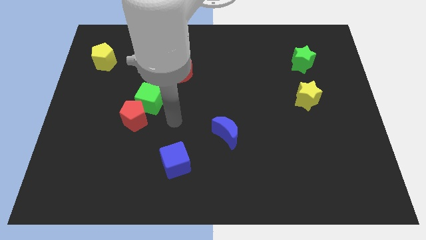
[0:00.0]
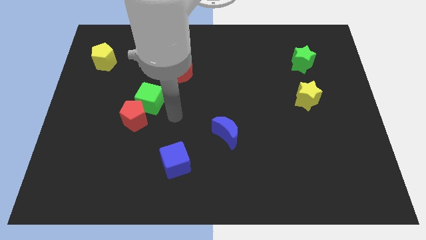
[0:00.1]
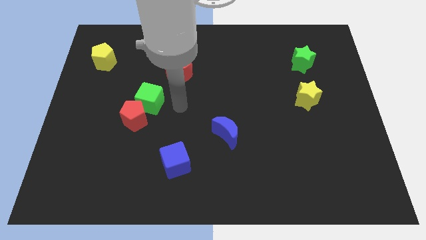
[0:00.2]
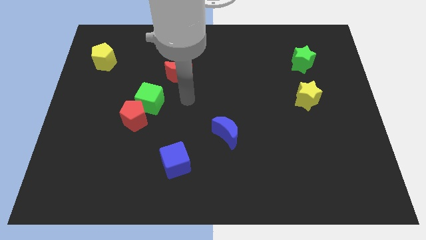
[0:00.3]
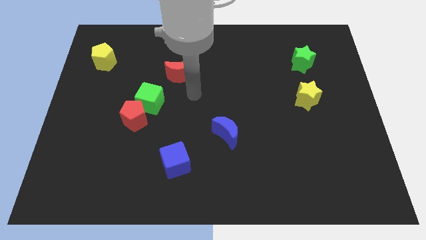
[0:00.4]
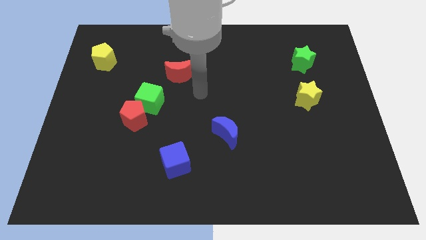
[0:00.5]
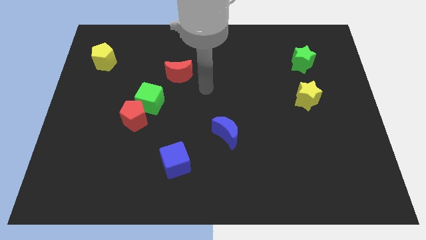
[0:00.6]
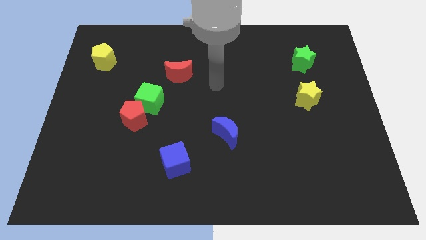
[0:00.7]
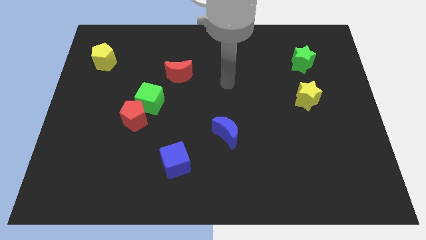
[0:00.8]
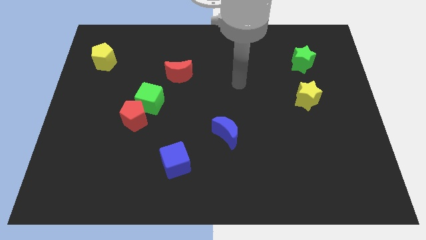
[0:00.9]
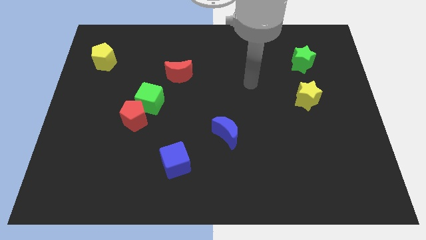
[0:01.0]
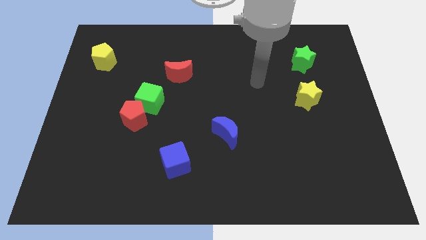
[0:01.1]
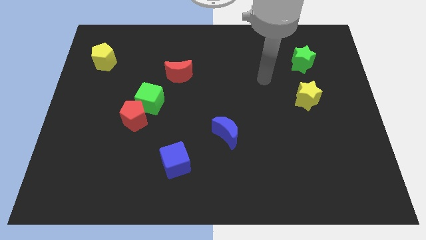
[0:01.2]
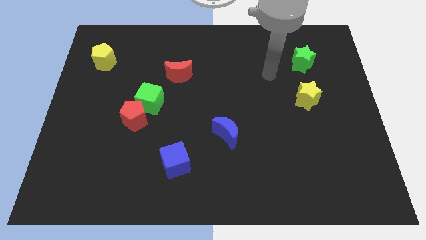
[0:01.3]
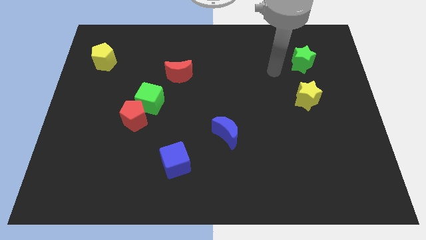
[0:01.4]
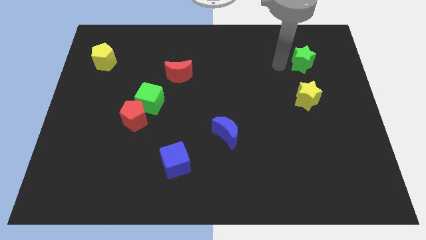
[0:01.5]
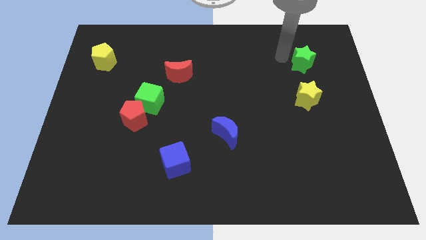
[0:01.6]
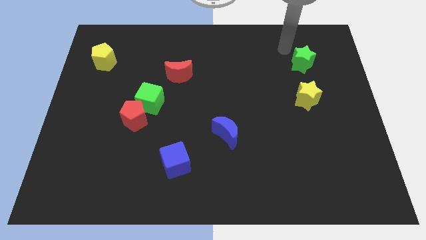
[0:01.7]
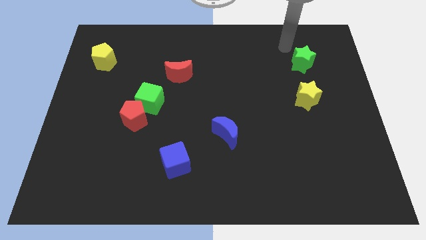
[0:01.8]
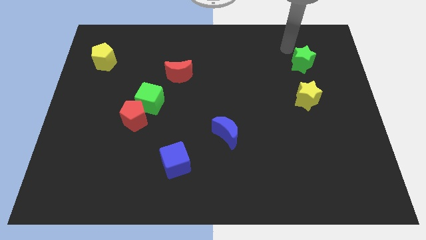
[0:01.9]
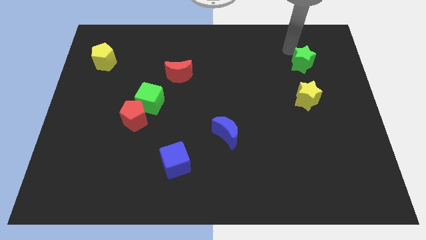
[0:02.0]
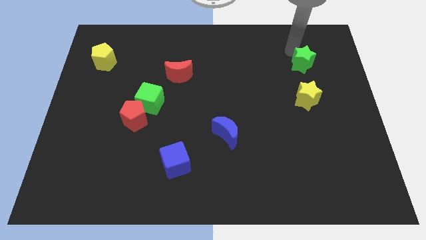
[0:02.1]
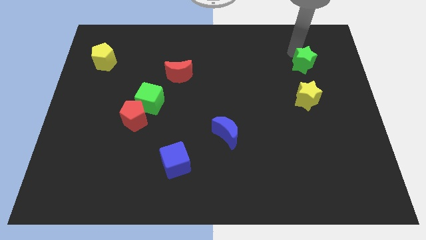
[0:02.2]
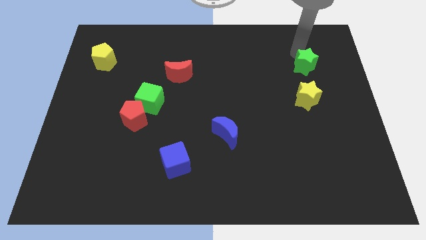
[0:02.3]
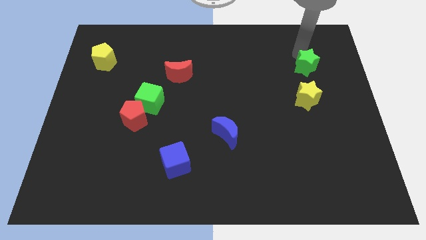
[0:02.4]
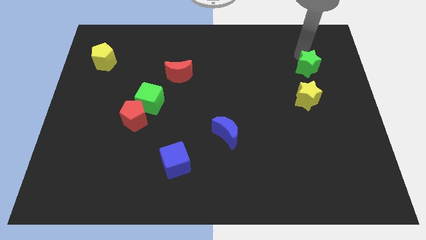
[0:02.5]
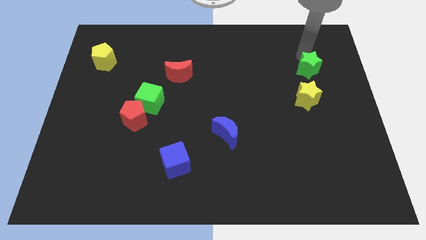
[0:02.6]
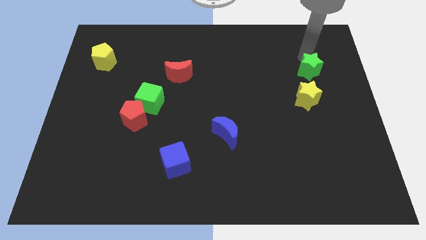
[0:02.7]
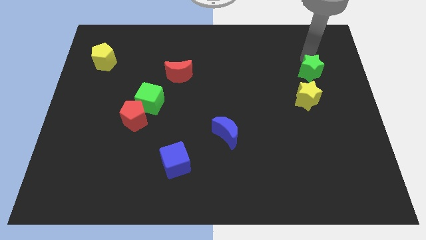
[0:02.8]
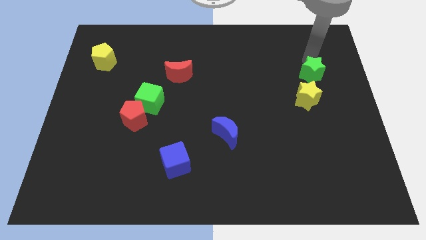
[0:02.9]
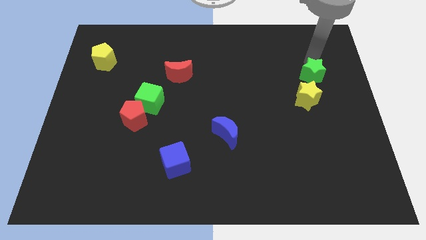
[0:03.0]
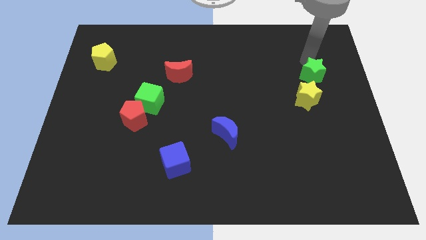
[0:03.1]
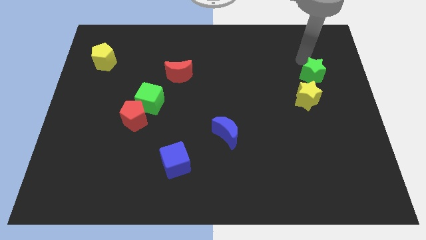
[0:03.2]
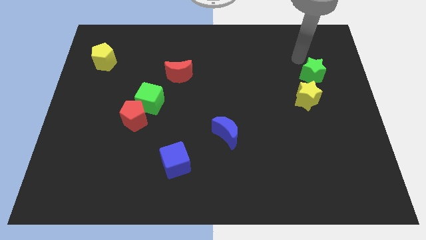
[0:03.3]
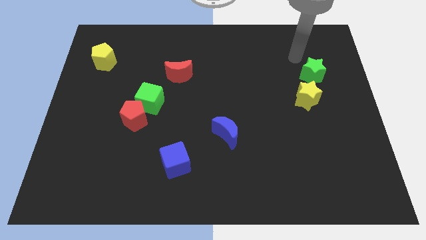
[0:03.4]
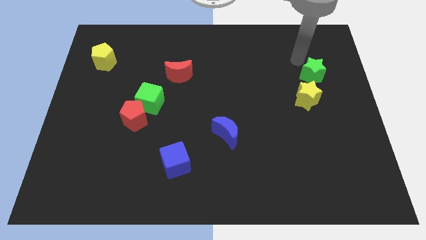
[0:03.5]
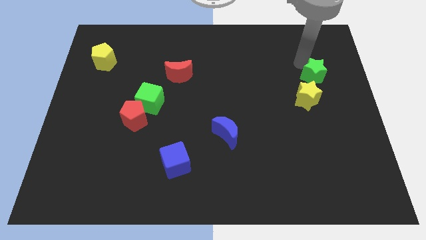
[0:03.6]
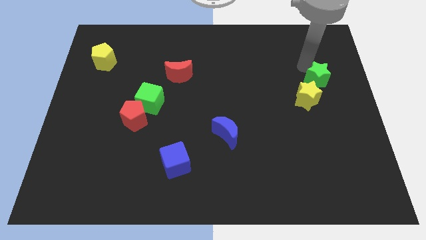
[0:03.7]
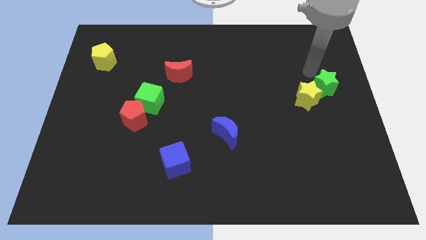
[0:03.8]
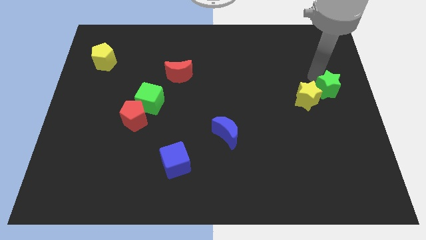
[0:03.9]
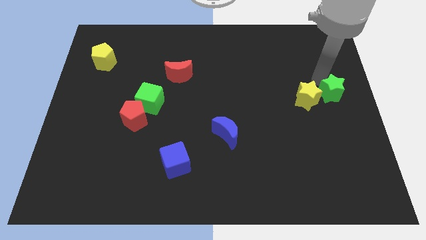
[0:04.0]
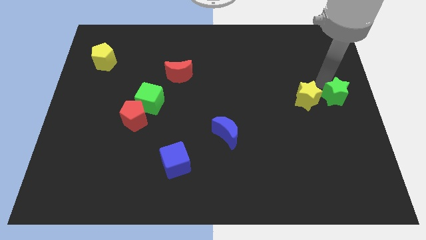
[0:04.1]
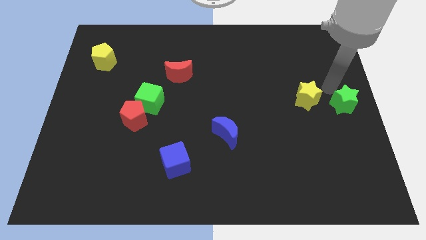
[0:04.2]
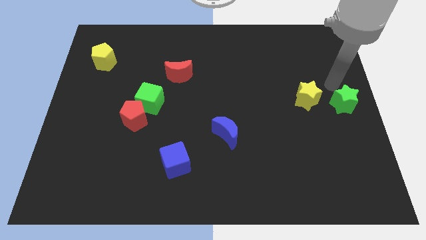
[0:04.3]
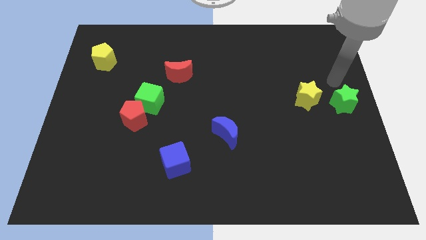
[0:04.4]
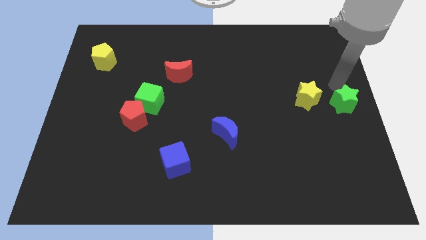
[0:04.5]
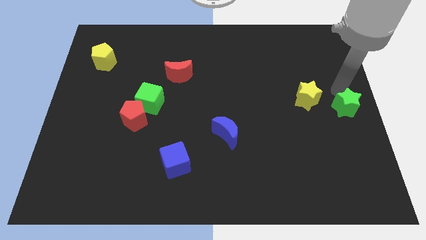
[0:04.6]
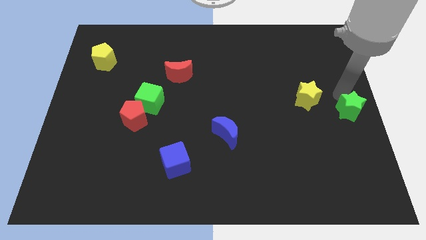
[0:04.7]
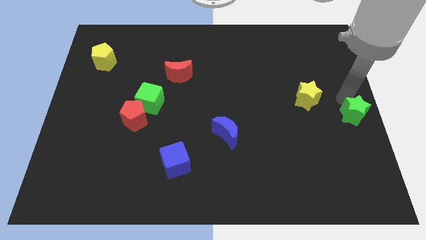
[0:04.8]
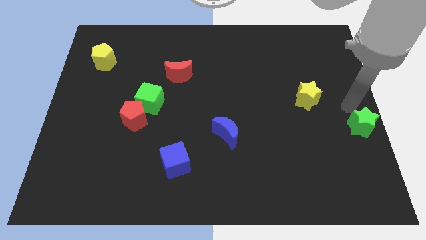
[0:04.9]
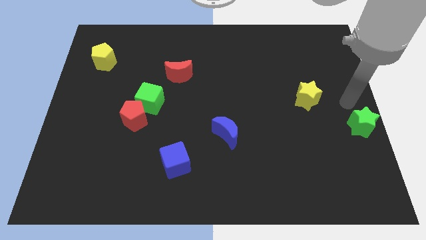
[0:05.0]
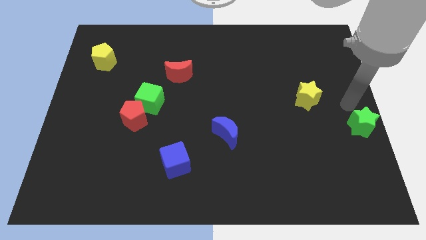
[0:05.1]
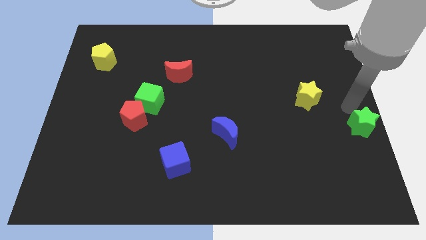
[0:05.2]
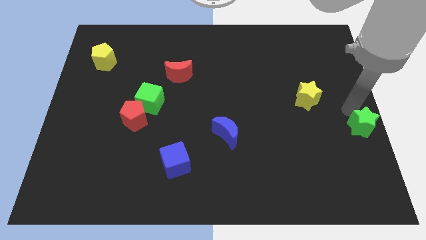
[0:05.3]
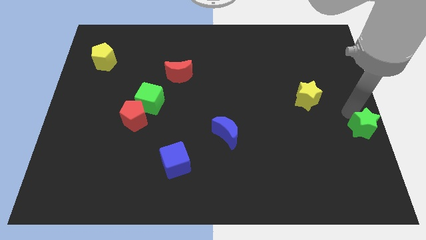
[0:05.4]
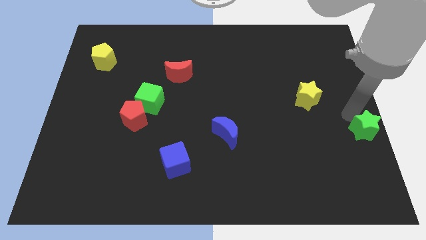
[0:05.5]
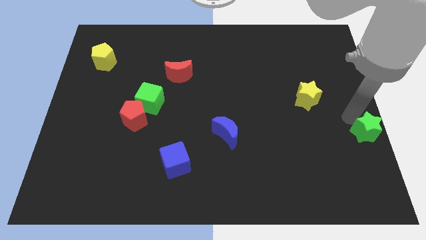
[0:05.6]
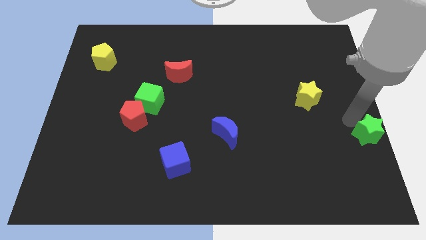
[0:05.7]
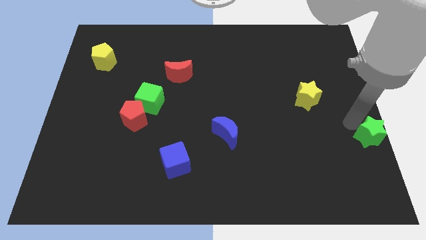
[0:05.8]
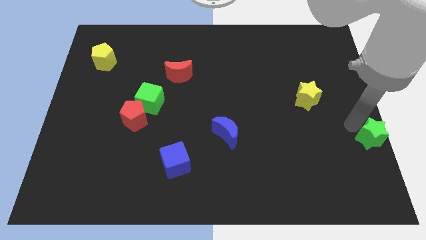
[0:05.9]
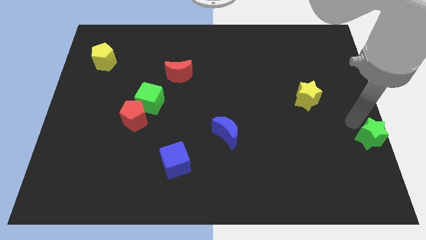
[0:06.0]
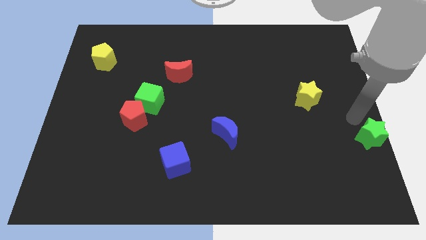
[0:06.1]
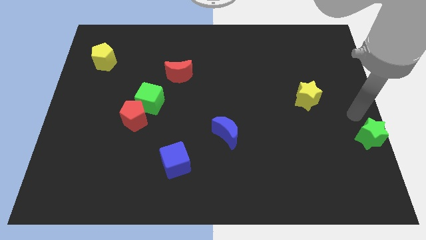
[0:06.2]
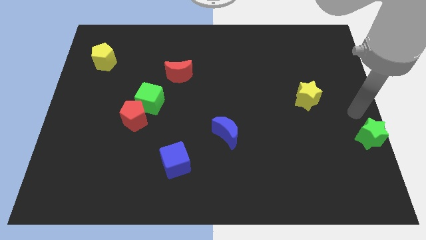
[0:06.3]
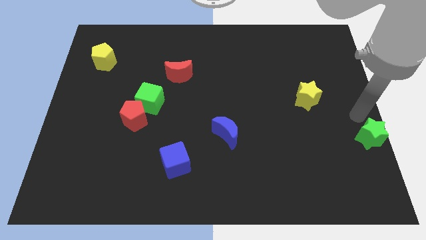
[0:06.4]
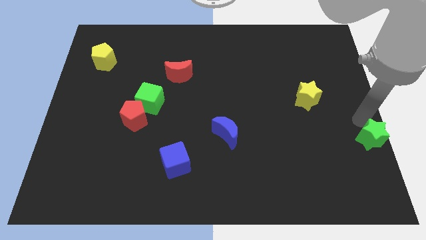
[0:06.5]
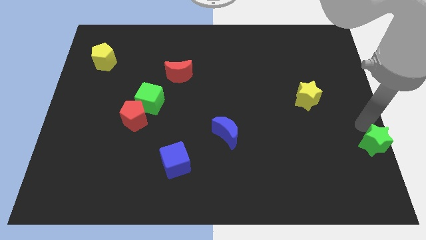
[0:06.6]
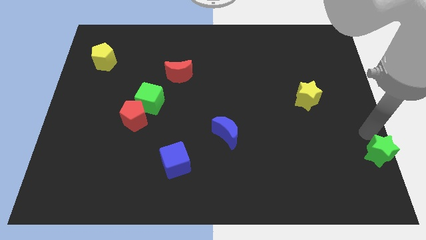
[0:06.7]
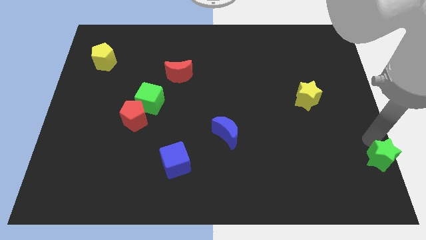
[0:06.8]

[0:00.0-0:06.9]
push the green star to the bottom right
